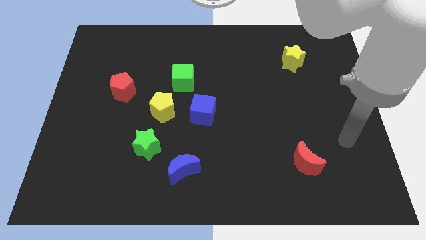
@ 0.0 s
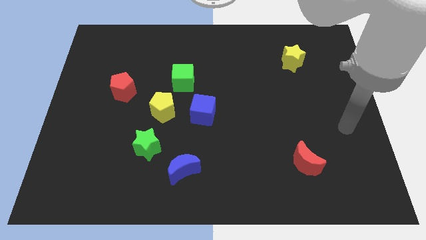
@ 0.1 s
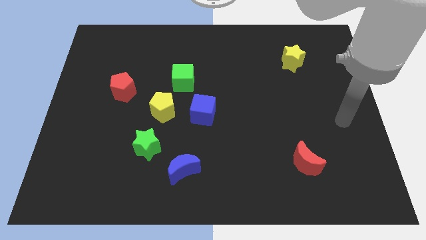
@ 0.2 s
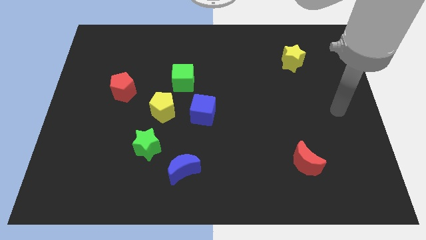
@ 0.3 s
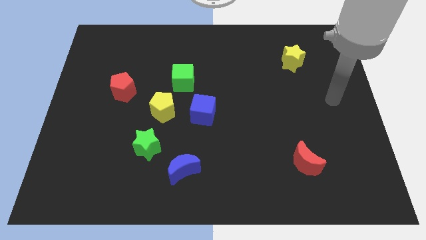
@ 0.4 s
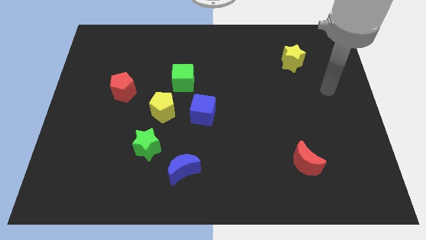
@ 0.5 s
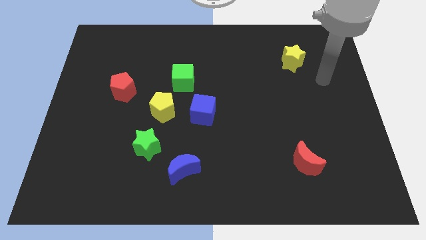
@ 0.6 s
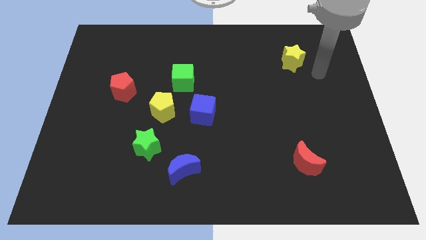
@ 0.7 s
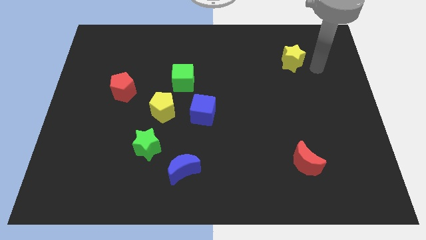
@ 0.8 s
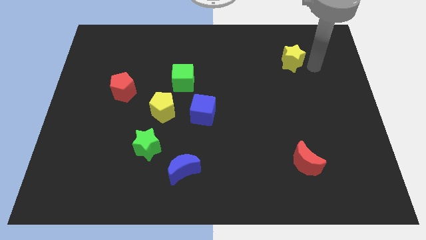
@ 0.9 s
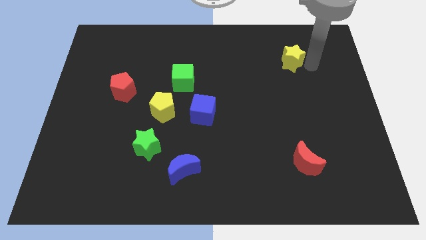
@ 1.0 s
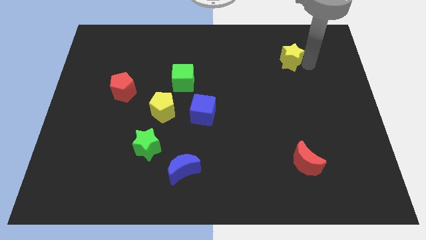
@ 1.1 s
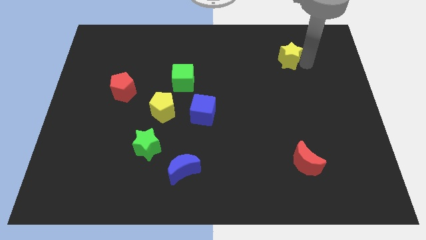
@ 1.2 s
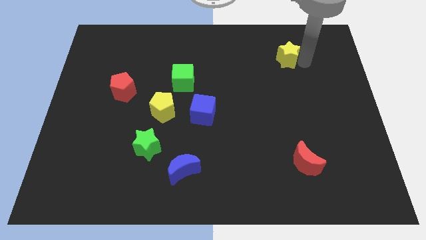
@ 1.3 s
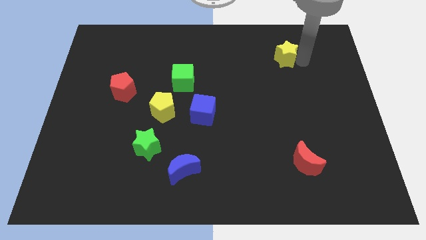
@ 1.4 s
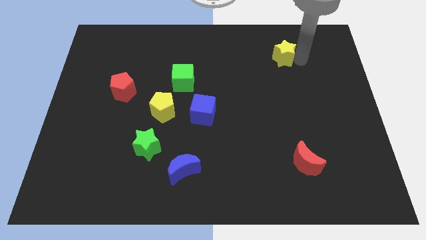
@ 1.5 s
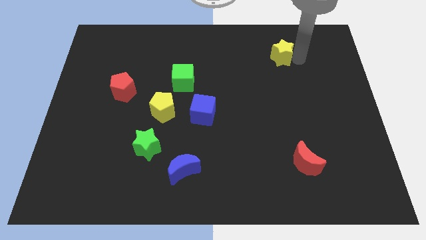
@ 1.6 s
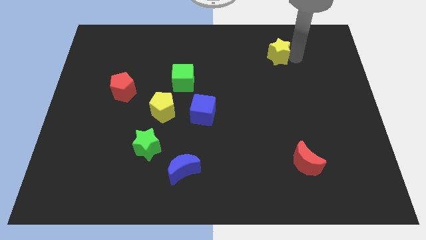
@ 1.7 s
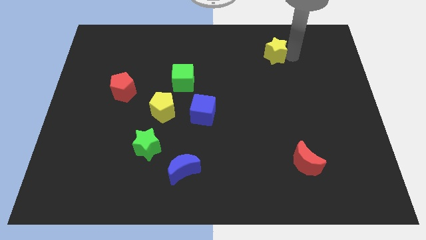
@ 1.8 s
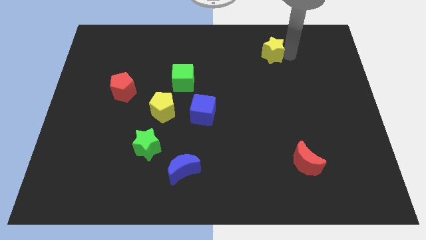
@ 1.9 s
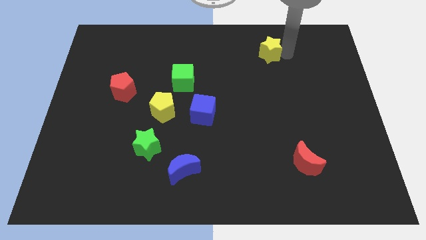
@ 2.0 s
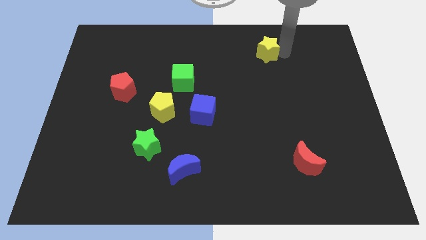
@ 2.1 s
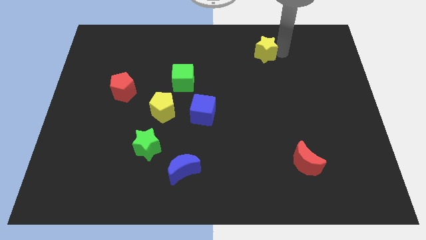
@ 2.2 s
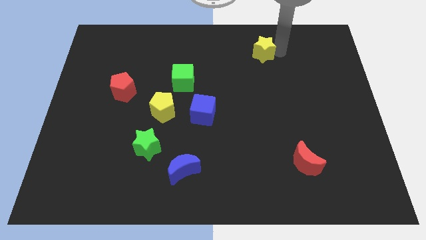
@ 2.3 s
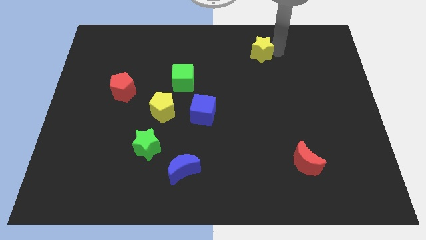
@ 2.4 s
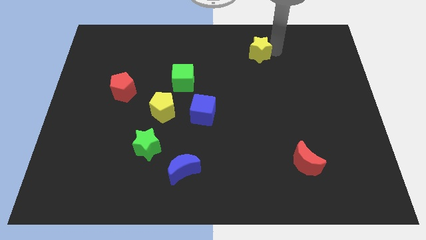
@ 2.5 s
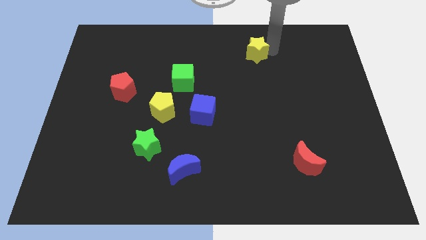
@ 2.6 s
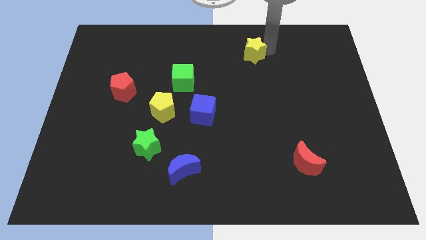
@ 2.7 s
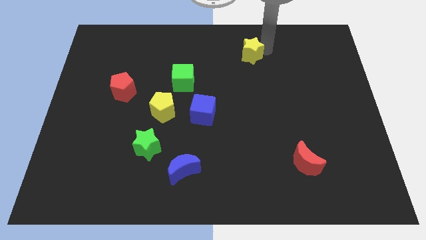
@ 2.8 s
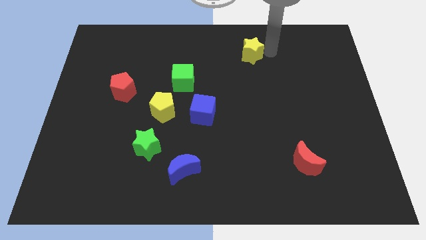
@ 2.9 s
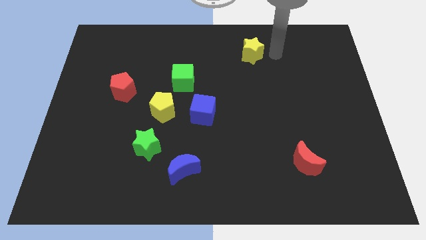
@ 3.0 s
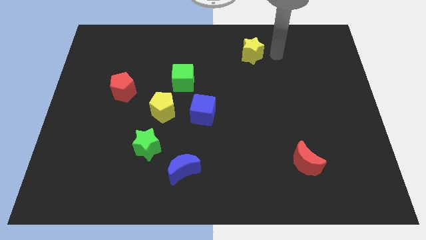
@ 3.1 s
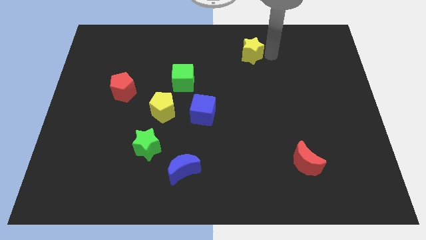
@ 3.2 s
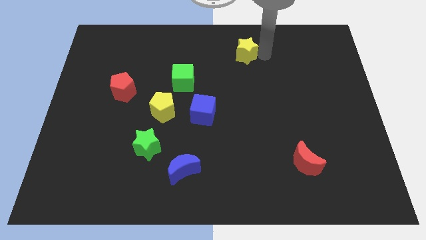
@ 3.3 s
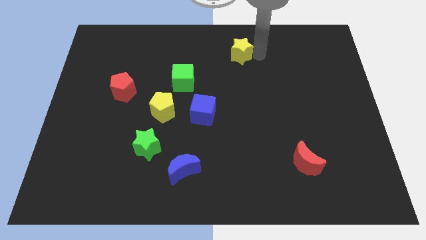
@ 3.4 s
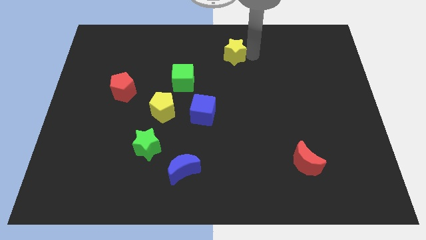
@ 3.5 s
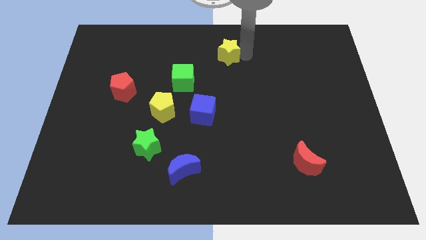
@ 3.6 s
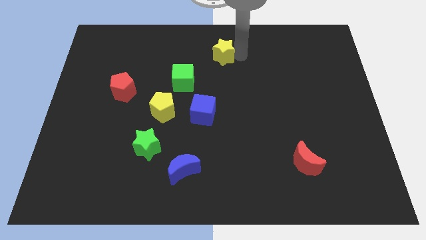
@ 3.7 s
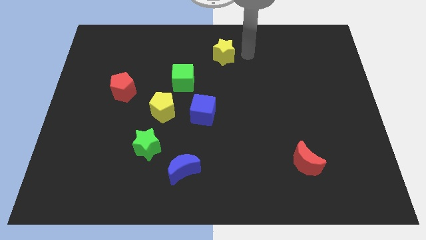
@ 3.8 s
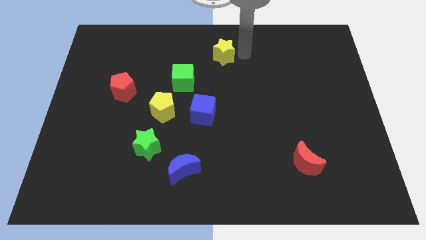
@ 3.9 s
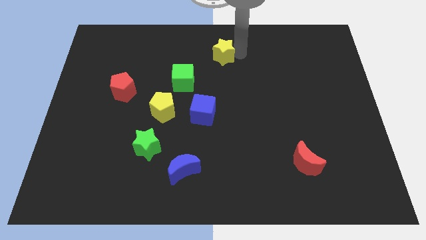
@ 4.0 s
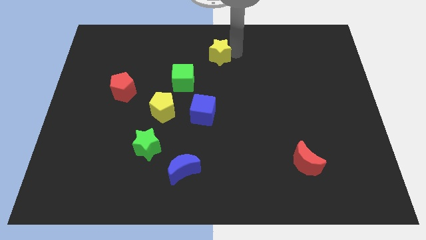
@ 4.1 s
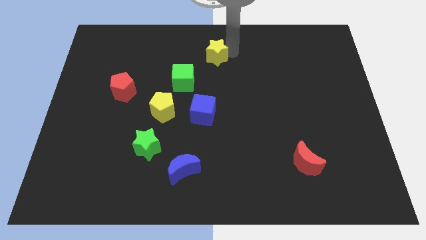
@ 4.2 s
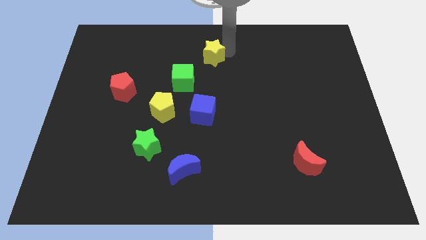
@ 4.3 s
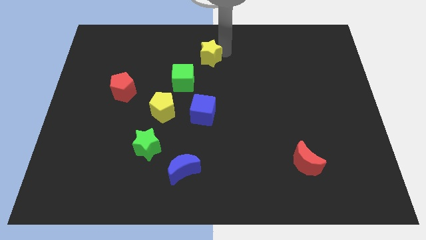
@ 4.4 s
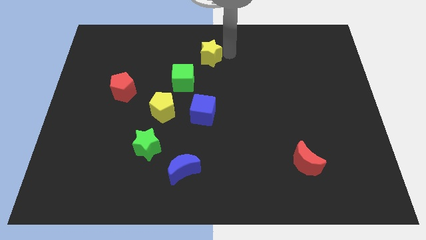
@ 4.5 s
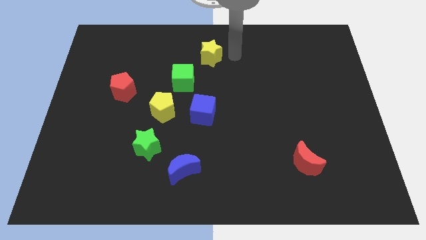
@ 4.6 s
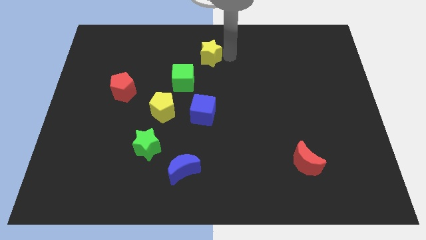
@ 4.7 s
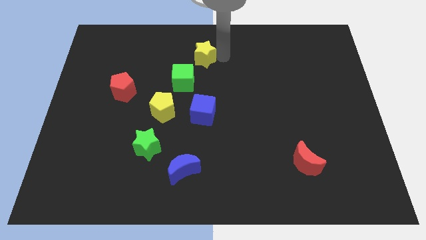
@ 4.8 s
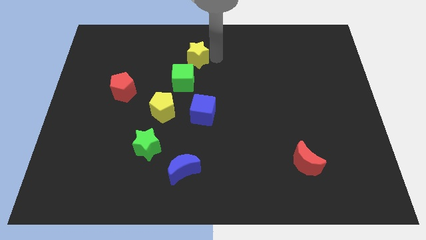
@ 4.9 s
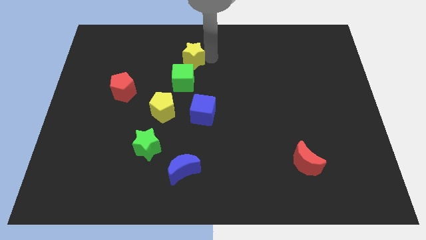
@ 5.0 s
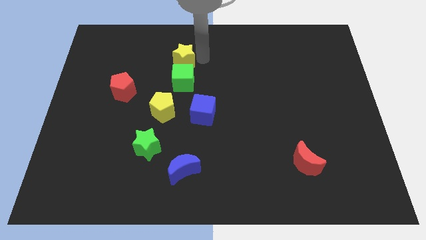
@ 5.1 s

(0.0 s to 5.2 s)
put the yellow star to the top left of the green cube

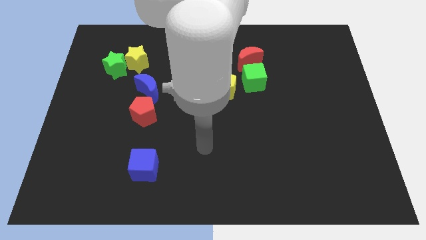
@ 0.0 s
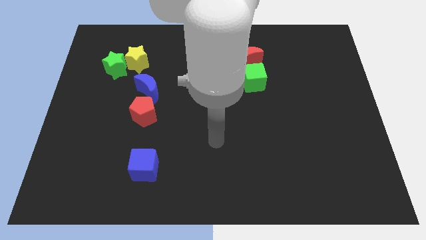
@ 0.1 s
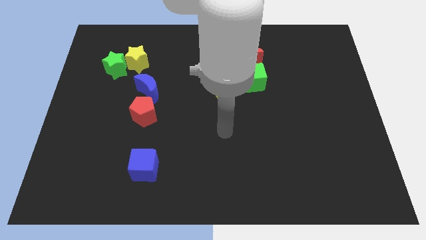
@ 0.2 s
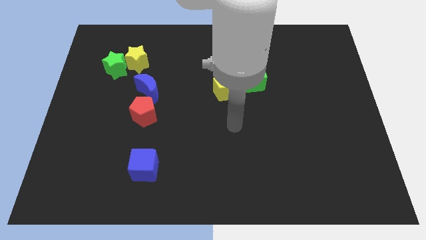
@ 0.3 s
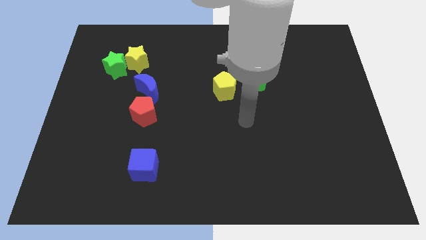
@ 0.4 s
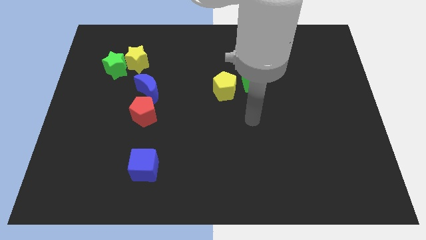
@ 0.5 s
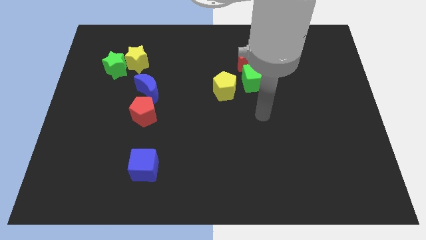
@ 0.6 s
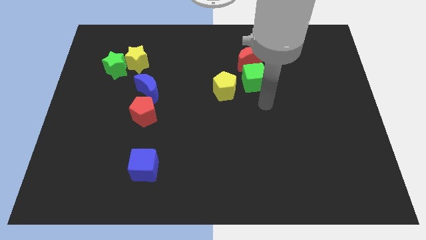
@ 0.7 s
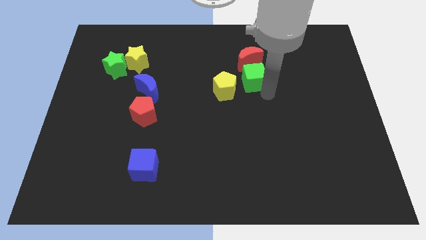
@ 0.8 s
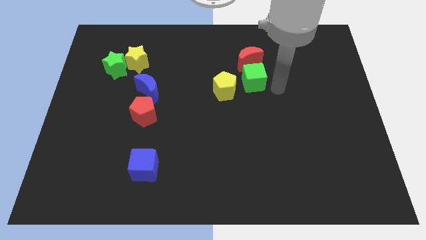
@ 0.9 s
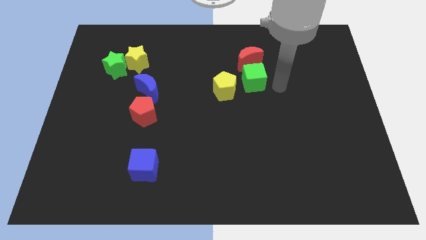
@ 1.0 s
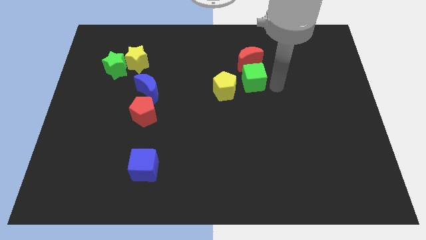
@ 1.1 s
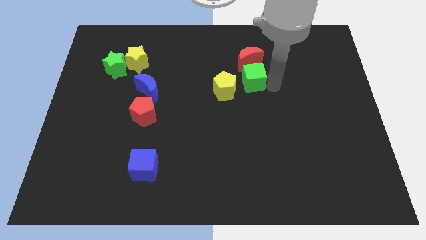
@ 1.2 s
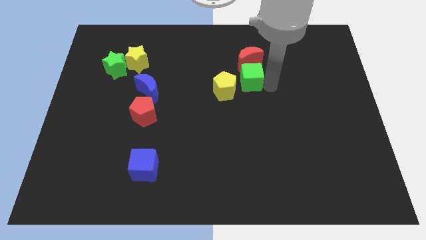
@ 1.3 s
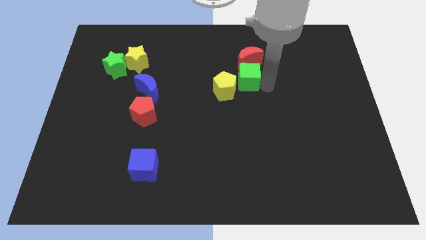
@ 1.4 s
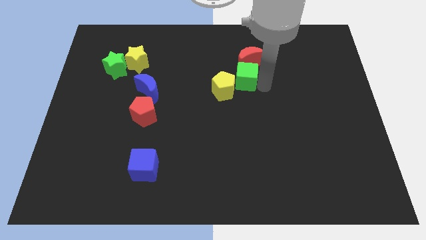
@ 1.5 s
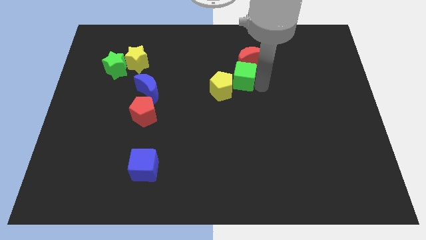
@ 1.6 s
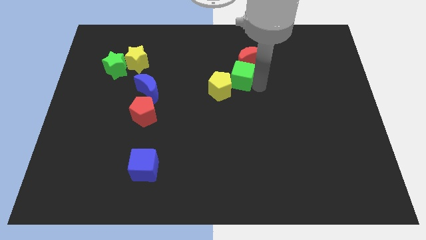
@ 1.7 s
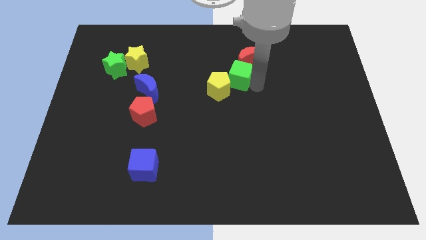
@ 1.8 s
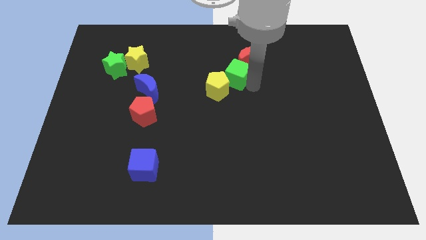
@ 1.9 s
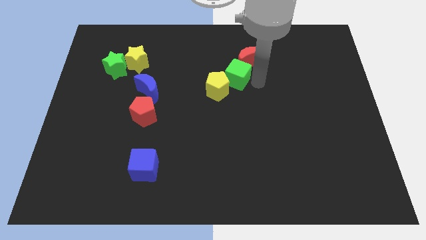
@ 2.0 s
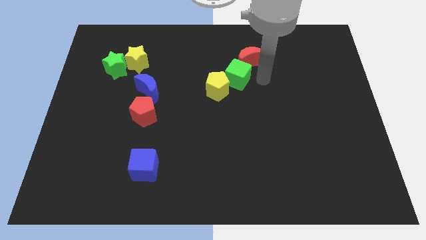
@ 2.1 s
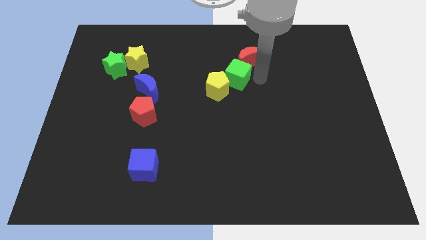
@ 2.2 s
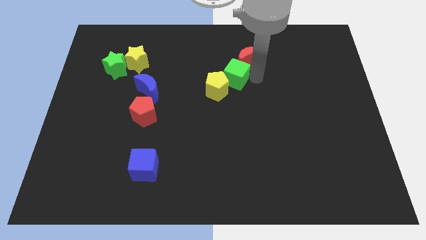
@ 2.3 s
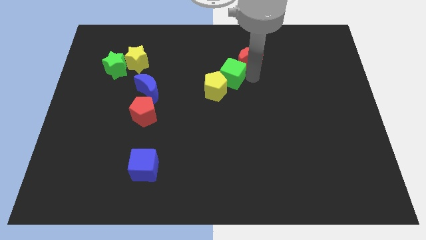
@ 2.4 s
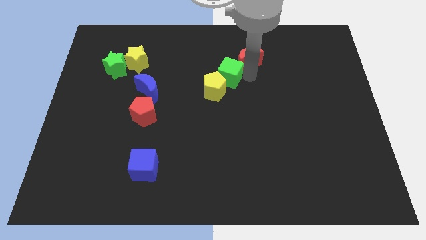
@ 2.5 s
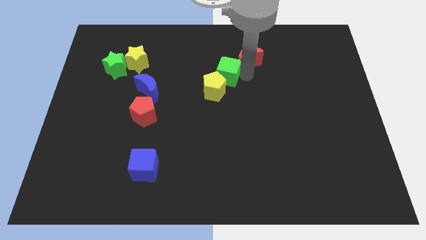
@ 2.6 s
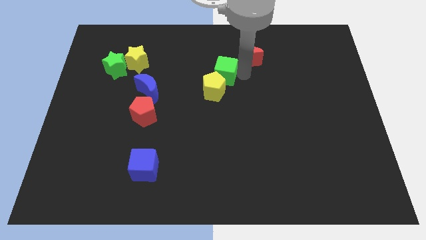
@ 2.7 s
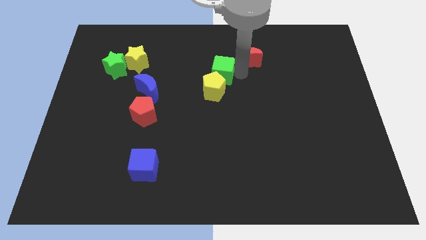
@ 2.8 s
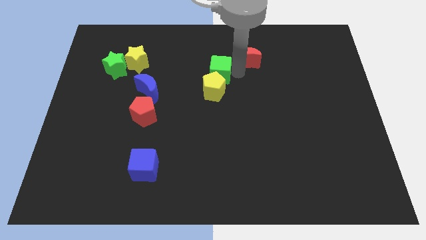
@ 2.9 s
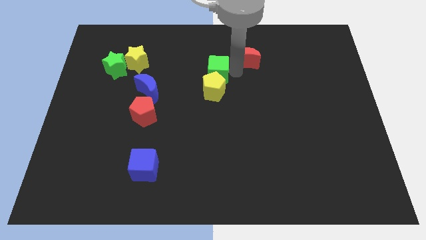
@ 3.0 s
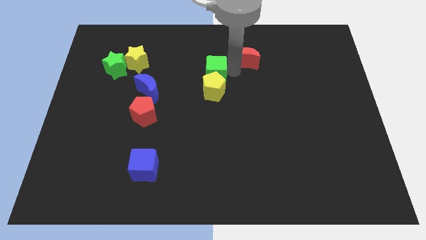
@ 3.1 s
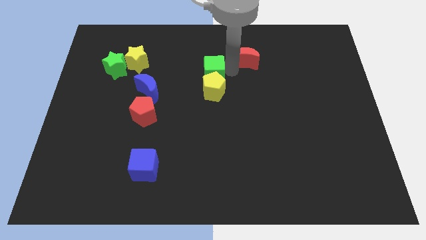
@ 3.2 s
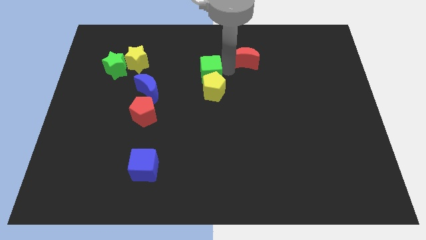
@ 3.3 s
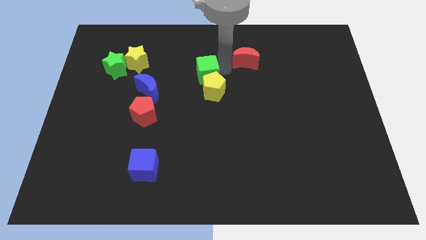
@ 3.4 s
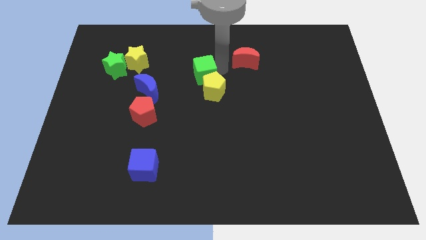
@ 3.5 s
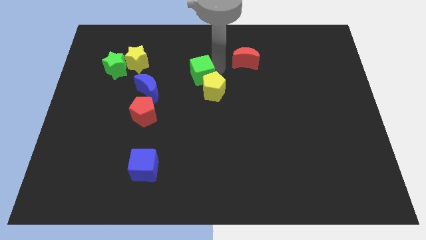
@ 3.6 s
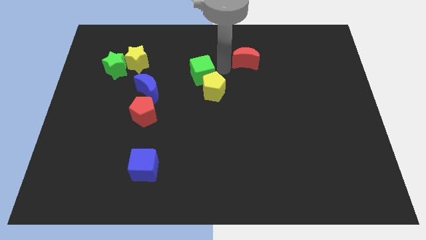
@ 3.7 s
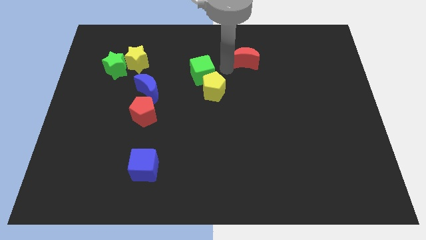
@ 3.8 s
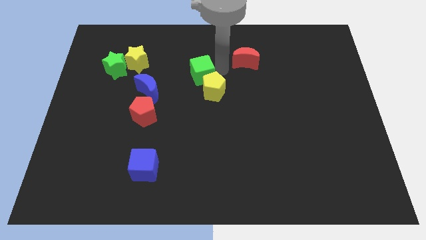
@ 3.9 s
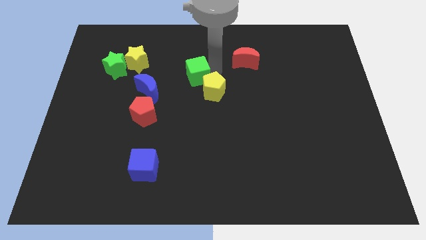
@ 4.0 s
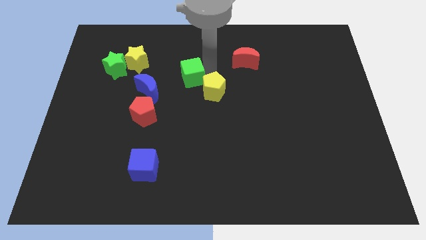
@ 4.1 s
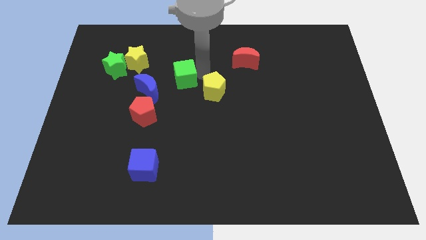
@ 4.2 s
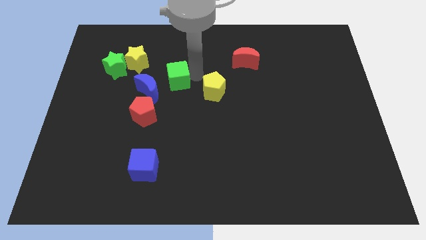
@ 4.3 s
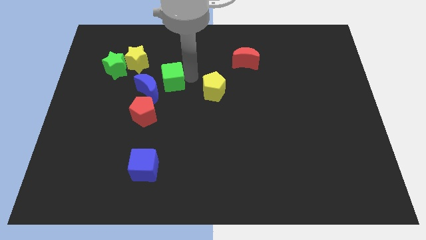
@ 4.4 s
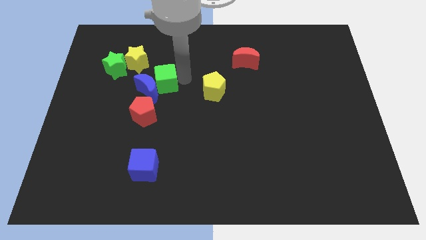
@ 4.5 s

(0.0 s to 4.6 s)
move the green cube above the red pentagon
